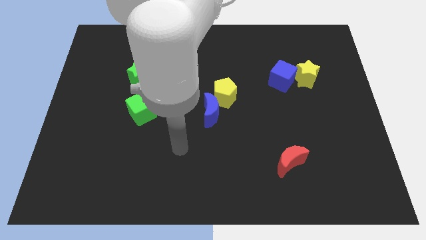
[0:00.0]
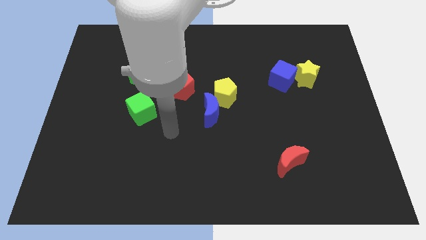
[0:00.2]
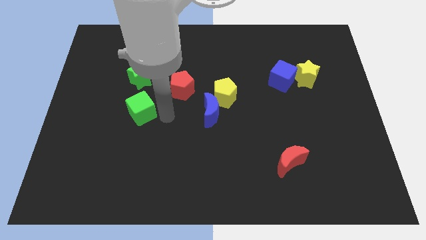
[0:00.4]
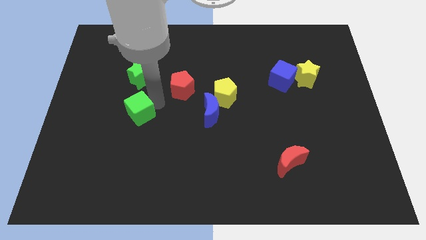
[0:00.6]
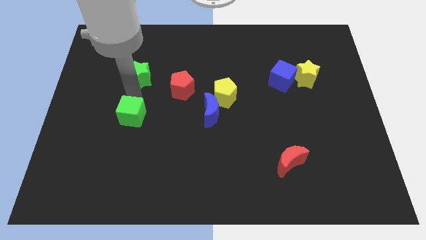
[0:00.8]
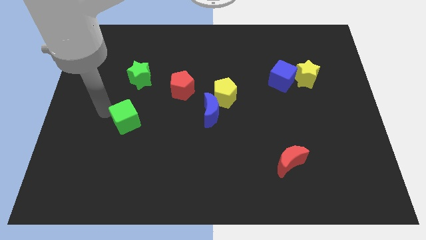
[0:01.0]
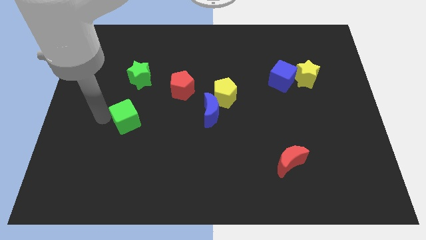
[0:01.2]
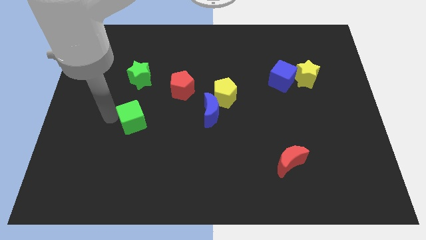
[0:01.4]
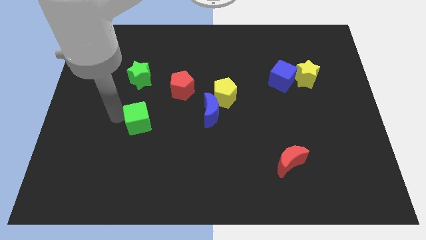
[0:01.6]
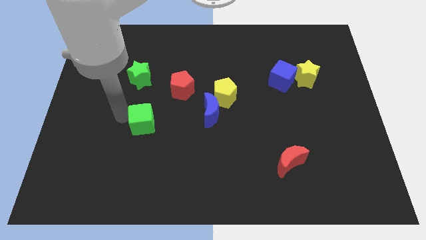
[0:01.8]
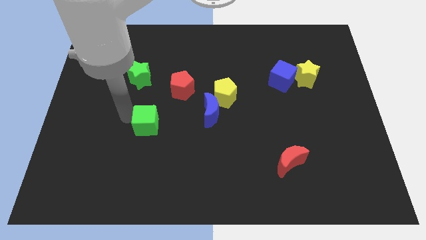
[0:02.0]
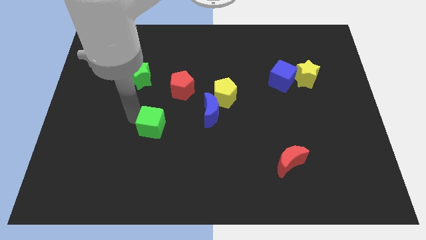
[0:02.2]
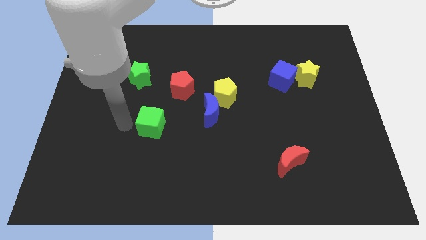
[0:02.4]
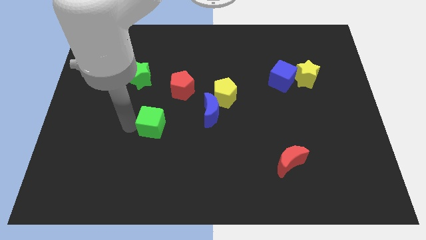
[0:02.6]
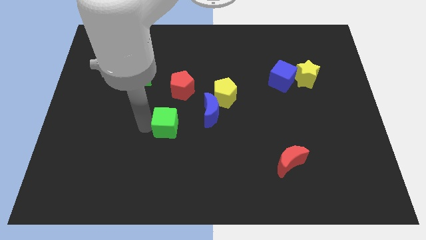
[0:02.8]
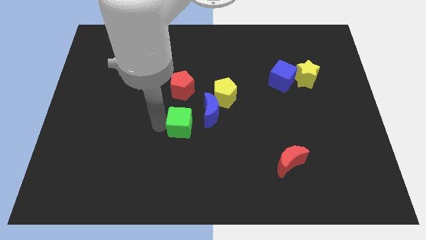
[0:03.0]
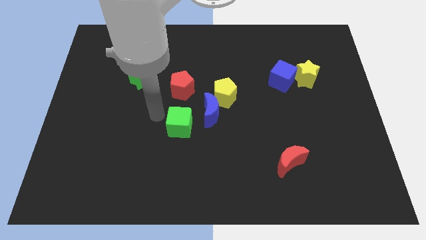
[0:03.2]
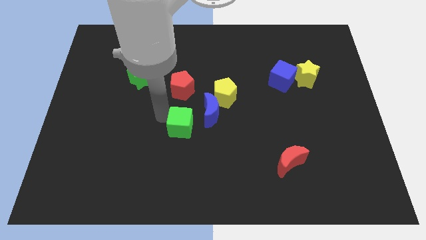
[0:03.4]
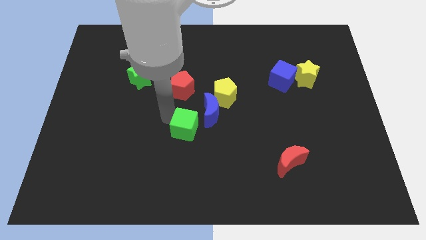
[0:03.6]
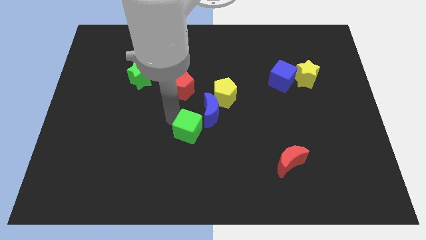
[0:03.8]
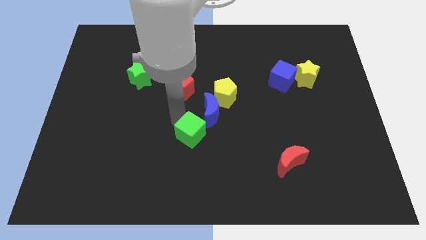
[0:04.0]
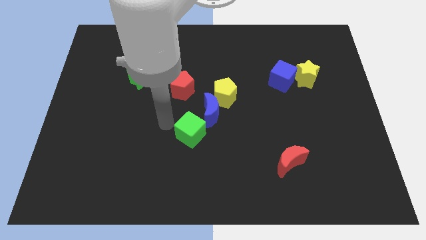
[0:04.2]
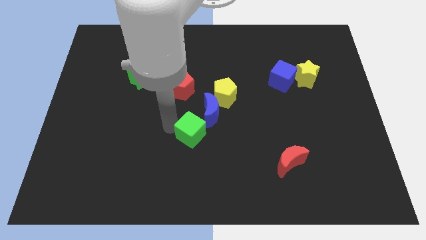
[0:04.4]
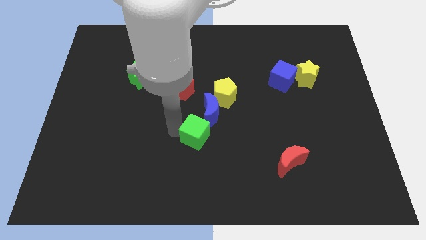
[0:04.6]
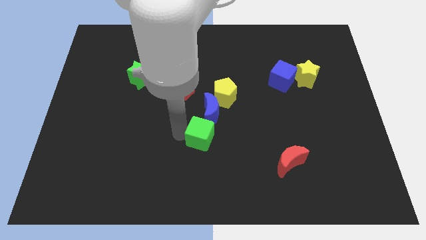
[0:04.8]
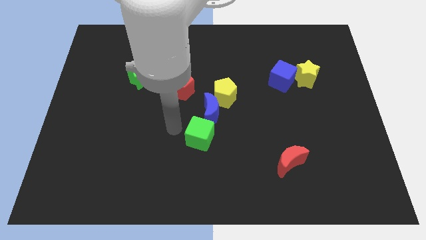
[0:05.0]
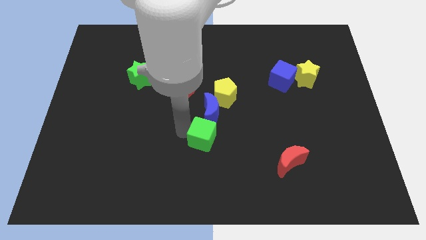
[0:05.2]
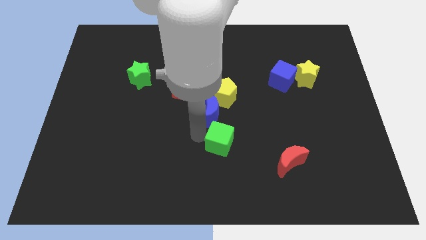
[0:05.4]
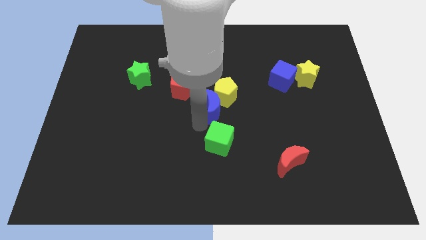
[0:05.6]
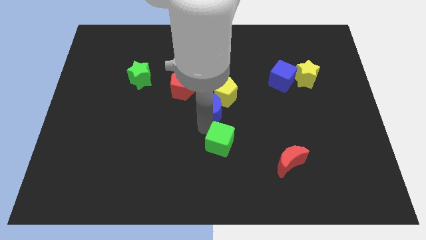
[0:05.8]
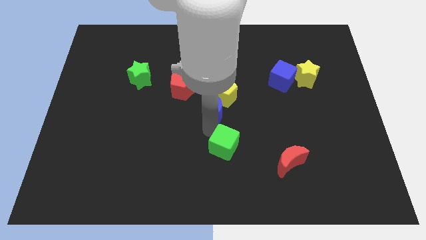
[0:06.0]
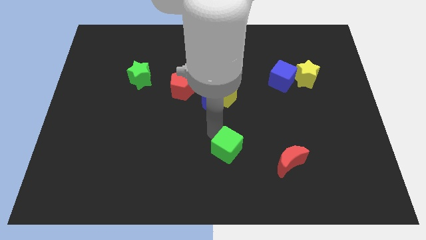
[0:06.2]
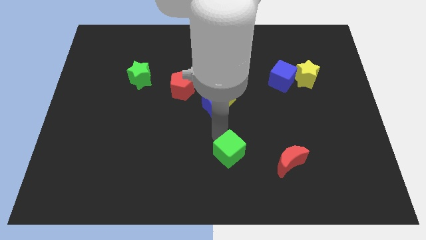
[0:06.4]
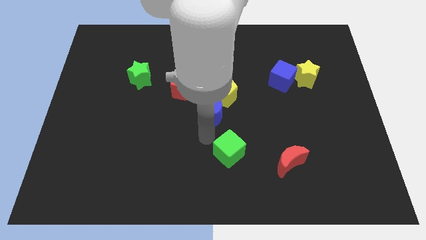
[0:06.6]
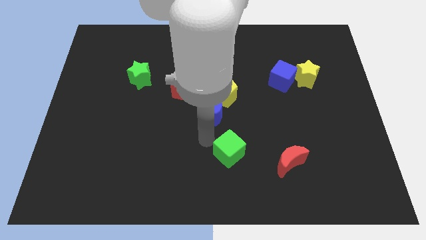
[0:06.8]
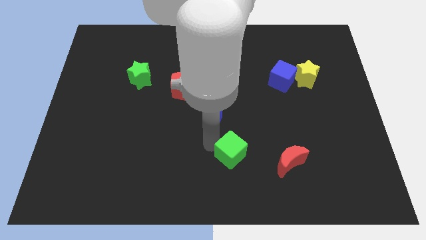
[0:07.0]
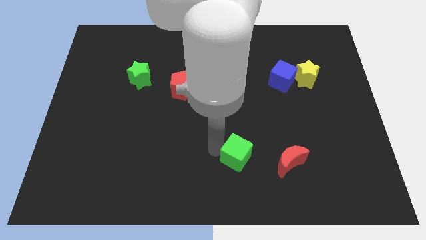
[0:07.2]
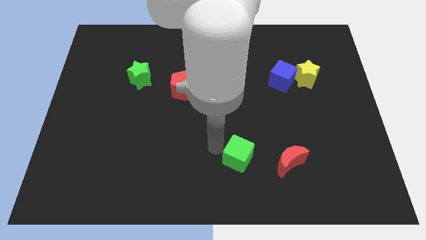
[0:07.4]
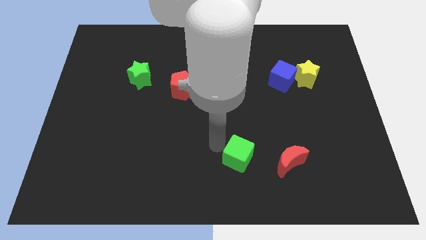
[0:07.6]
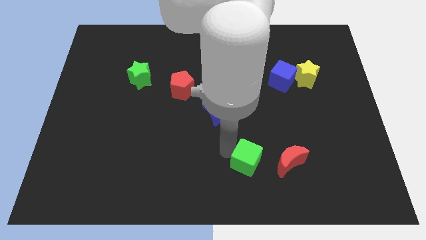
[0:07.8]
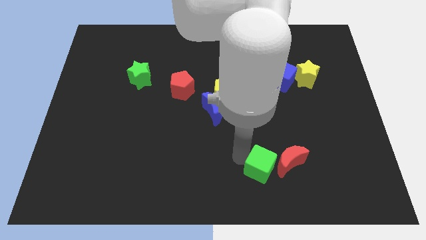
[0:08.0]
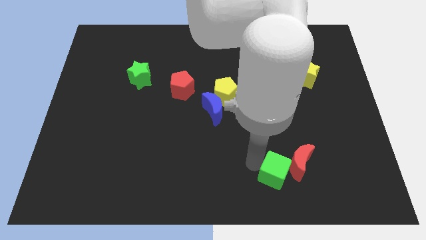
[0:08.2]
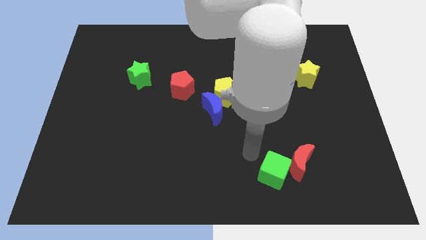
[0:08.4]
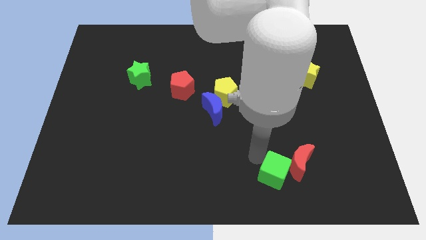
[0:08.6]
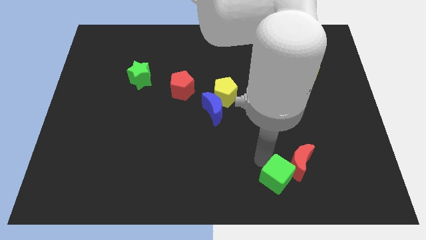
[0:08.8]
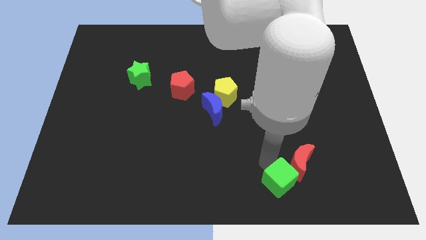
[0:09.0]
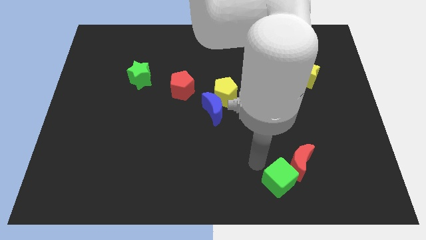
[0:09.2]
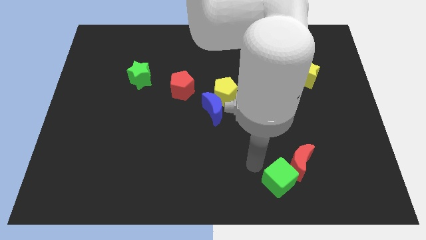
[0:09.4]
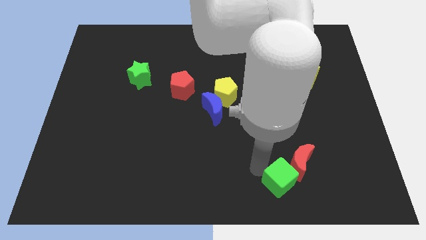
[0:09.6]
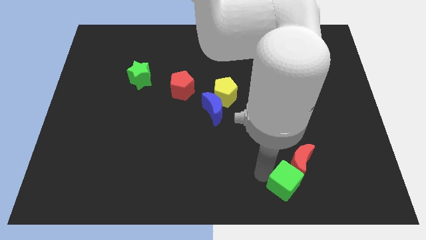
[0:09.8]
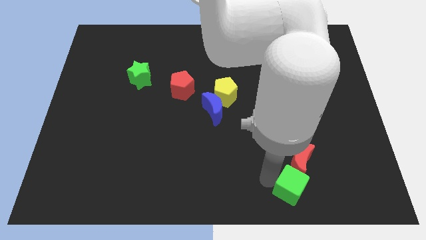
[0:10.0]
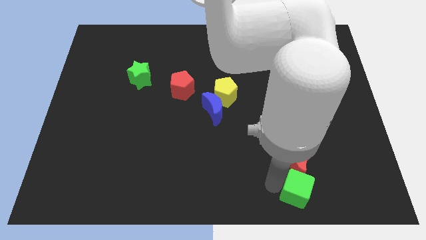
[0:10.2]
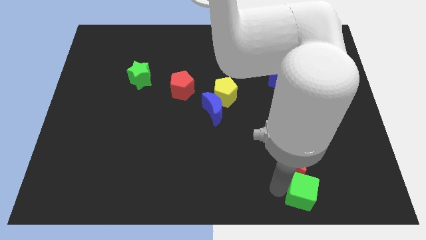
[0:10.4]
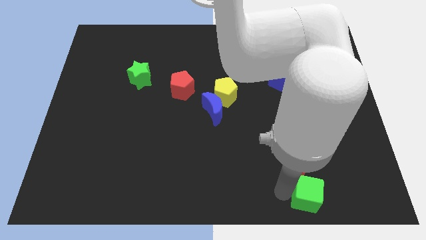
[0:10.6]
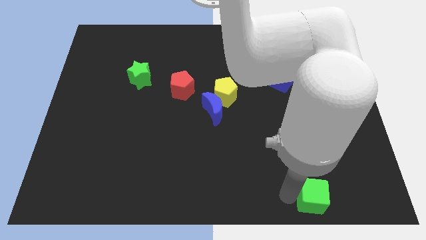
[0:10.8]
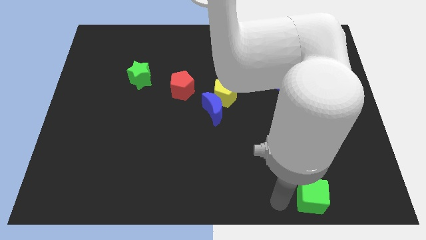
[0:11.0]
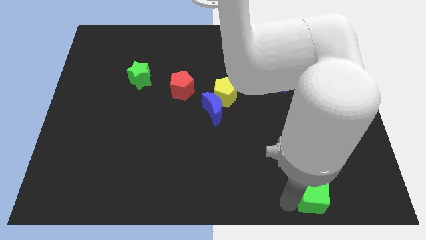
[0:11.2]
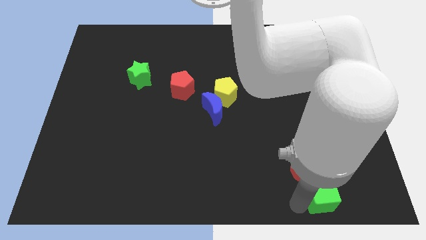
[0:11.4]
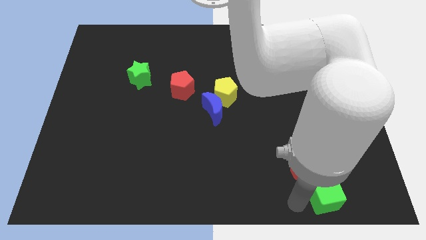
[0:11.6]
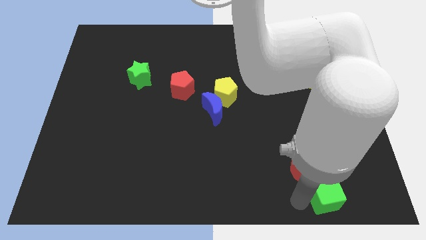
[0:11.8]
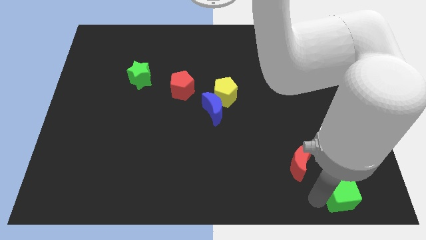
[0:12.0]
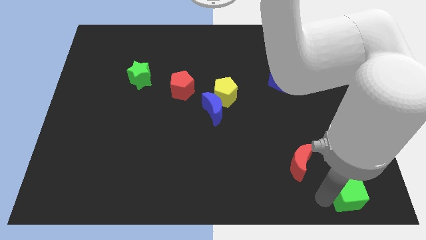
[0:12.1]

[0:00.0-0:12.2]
push the green cube to the bottom right of the board
